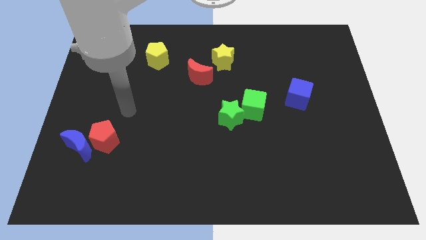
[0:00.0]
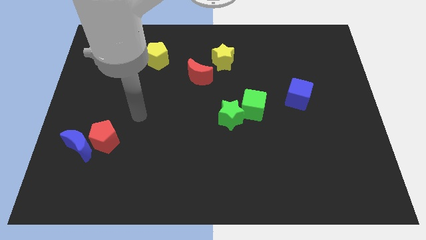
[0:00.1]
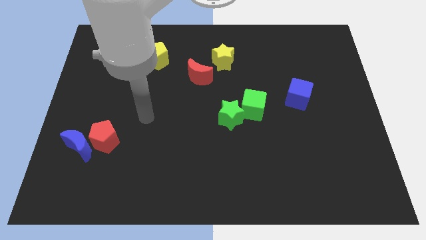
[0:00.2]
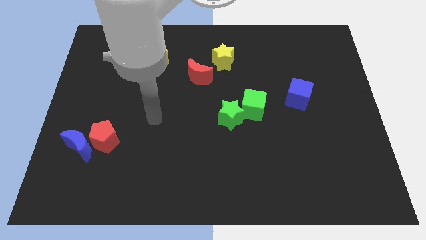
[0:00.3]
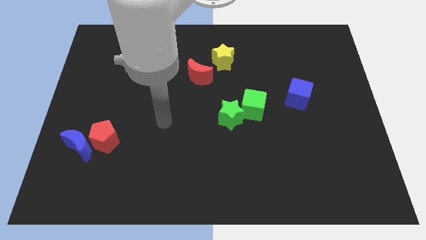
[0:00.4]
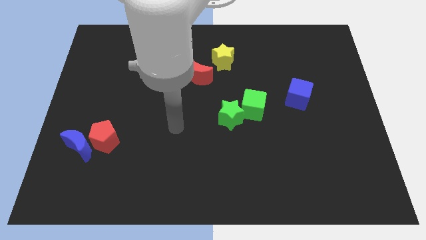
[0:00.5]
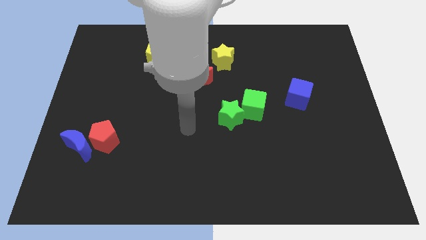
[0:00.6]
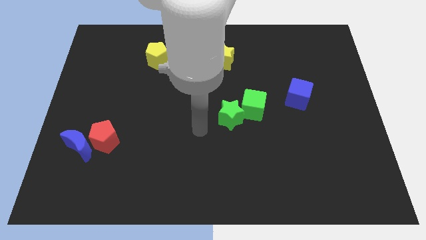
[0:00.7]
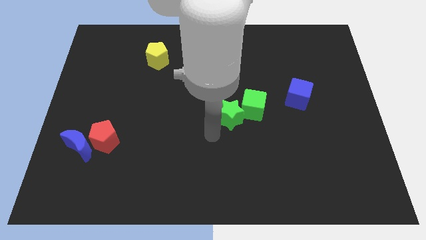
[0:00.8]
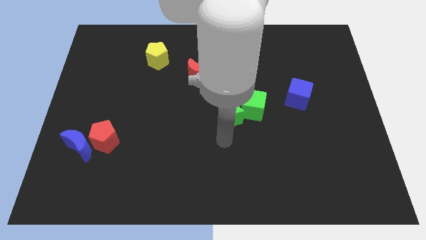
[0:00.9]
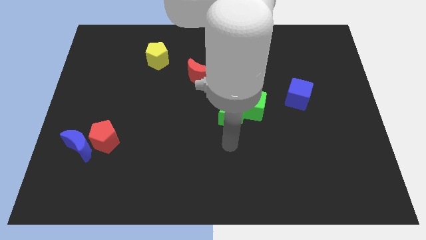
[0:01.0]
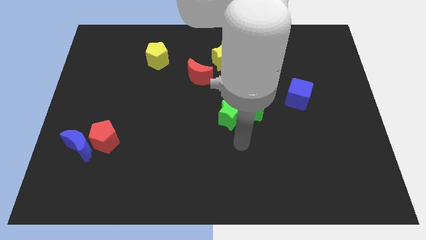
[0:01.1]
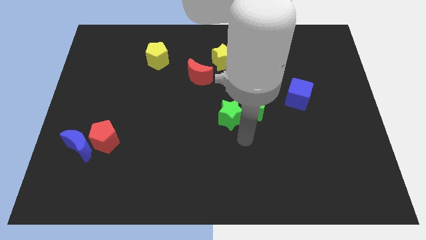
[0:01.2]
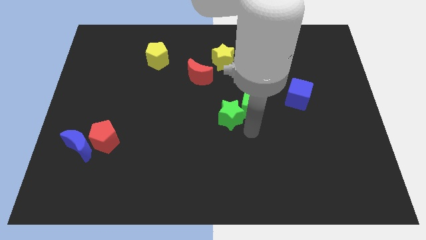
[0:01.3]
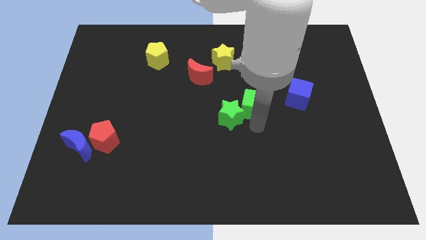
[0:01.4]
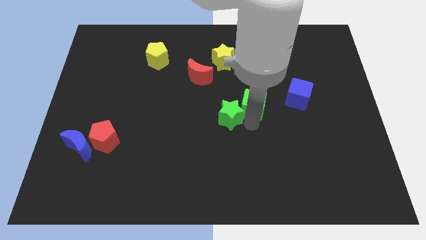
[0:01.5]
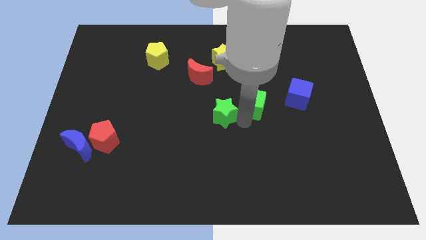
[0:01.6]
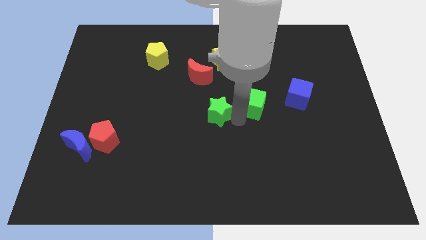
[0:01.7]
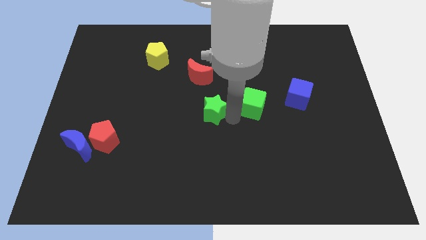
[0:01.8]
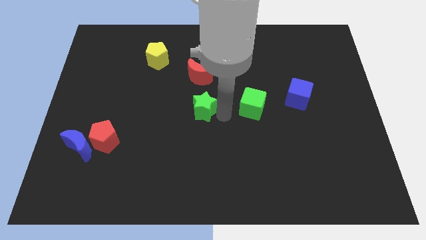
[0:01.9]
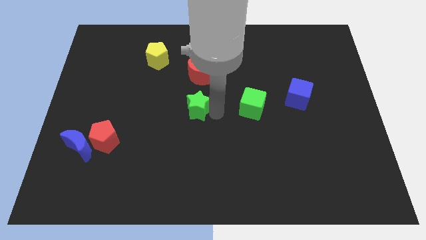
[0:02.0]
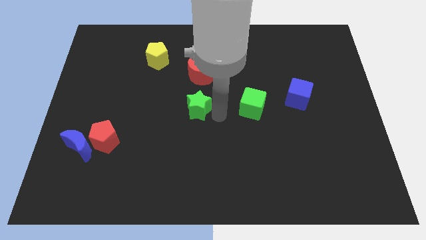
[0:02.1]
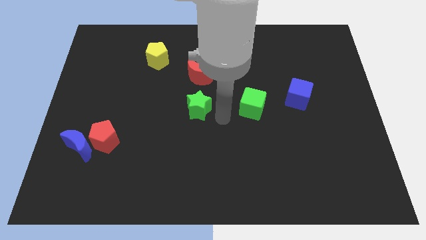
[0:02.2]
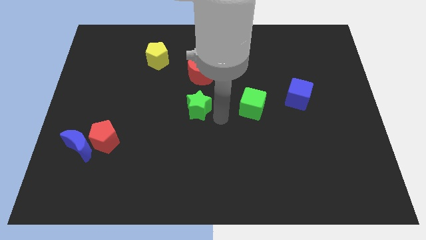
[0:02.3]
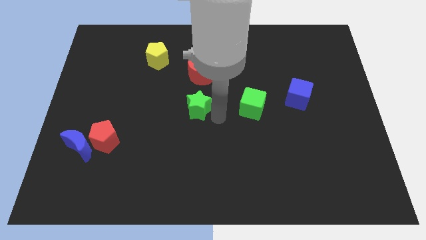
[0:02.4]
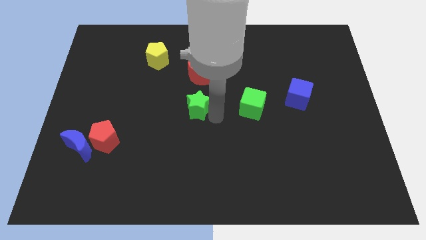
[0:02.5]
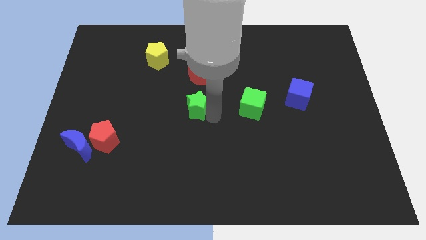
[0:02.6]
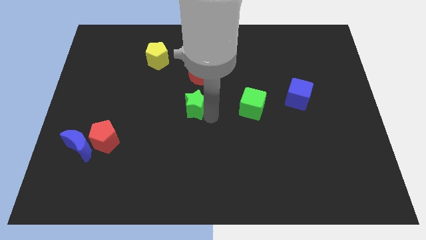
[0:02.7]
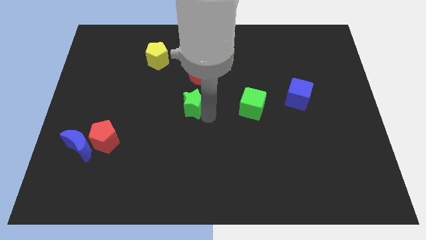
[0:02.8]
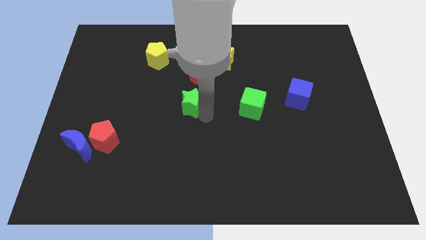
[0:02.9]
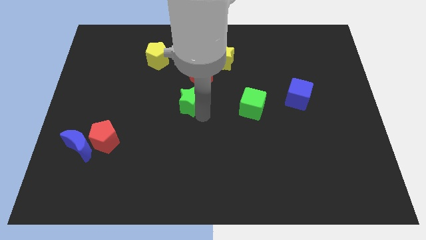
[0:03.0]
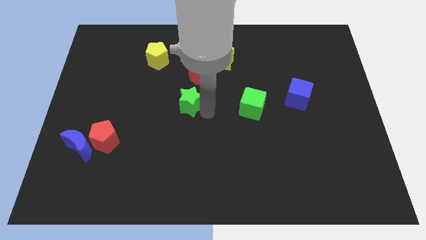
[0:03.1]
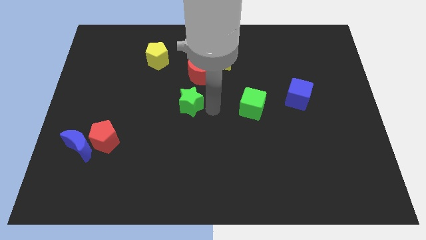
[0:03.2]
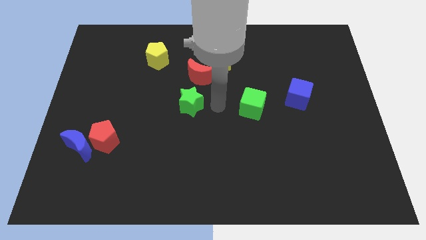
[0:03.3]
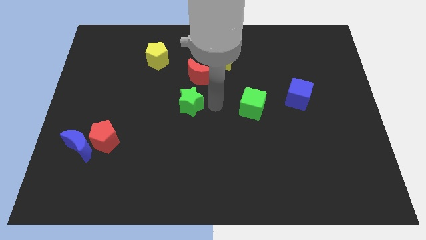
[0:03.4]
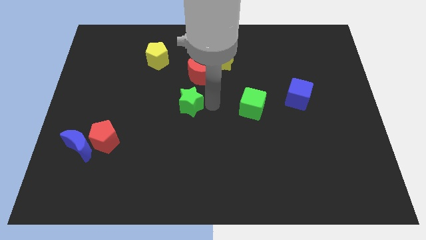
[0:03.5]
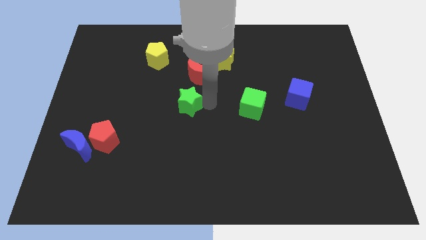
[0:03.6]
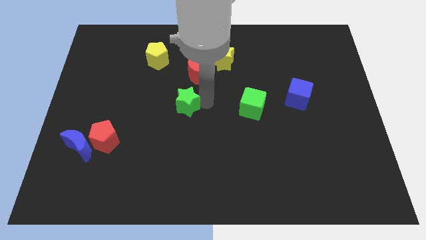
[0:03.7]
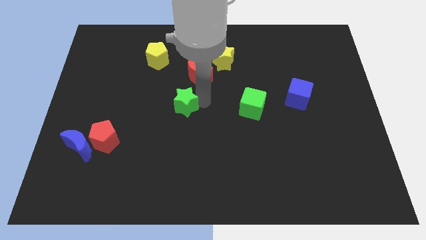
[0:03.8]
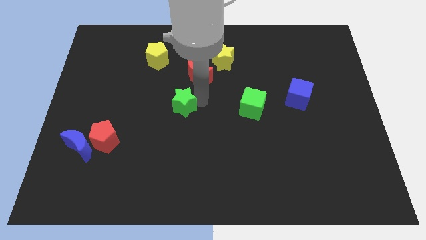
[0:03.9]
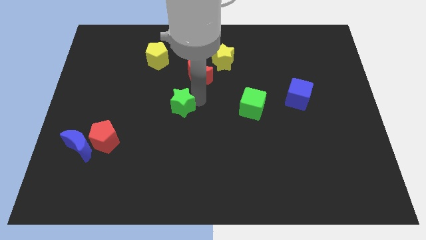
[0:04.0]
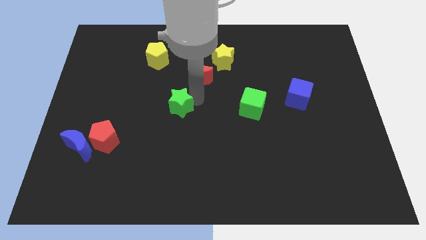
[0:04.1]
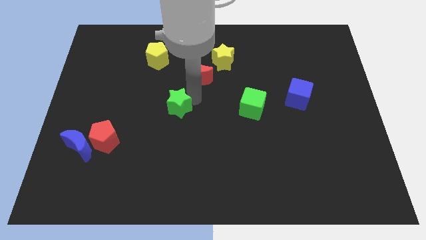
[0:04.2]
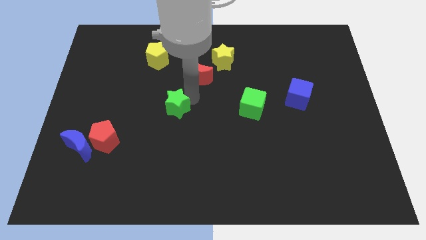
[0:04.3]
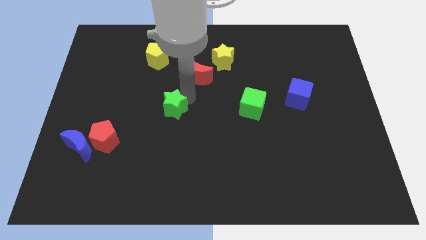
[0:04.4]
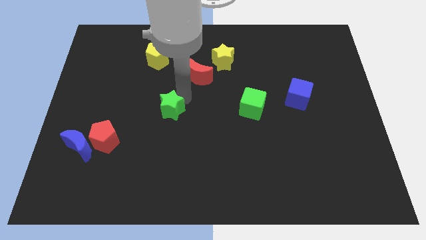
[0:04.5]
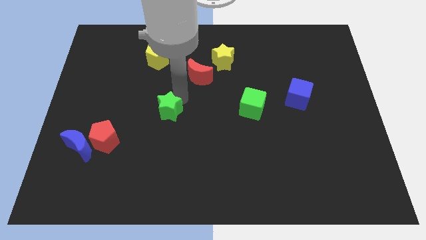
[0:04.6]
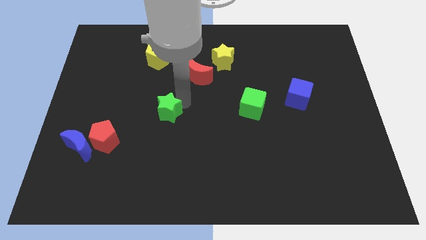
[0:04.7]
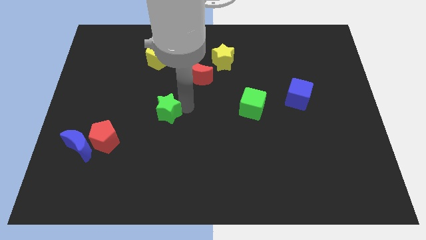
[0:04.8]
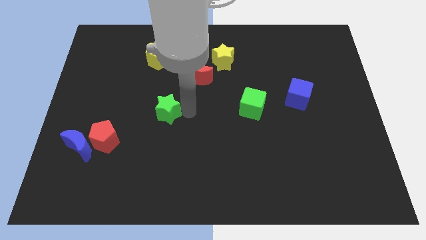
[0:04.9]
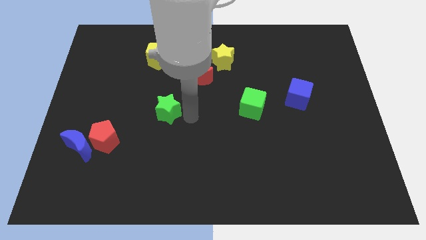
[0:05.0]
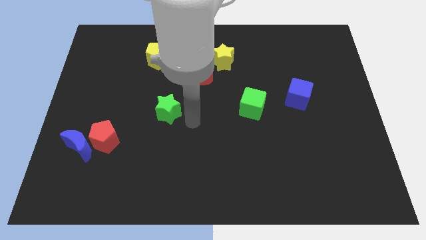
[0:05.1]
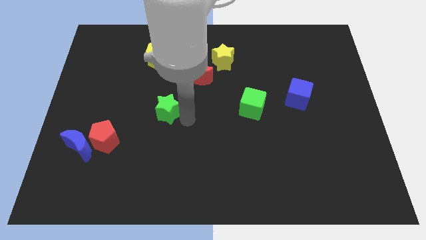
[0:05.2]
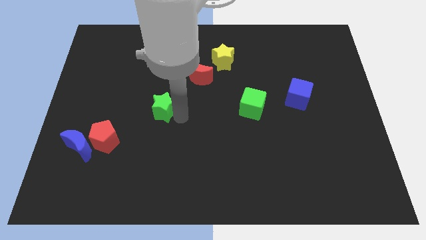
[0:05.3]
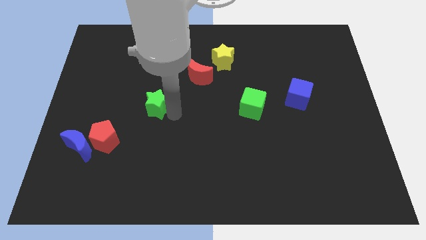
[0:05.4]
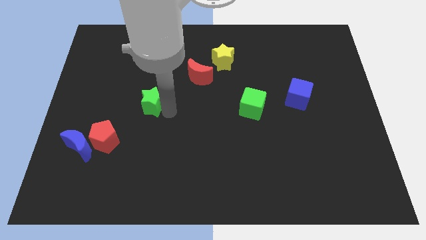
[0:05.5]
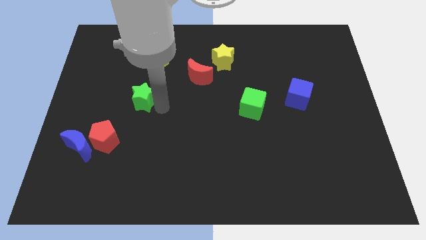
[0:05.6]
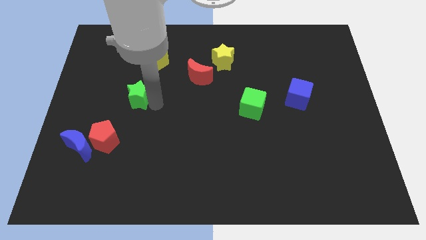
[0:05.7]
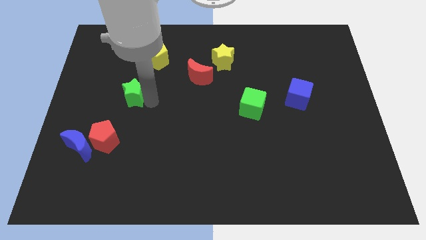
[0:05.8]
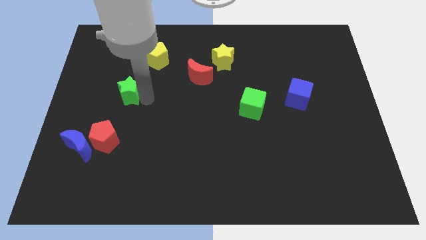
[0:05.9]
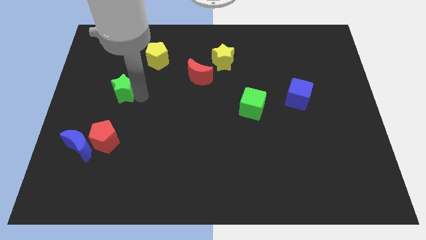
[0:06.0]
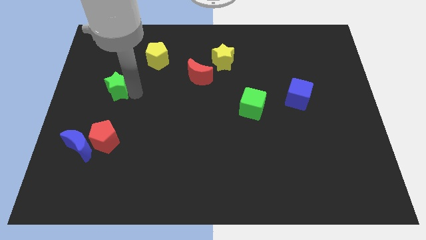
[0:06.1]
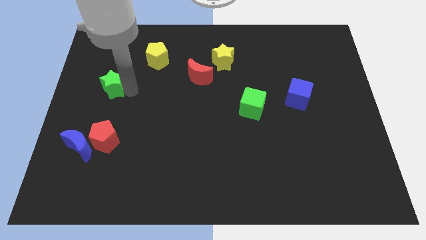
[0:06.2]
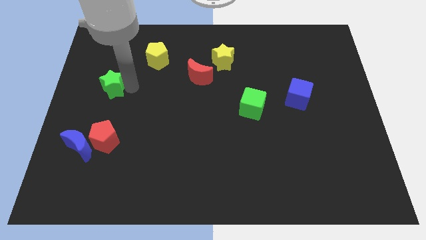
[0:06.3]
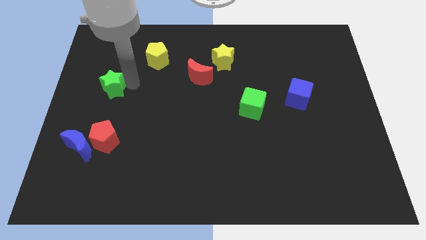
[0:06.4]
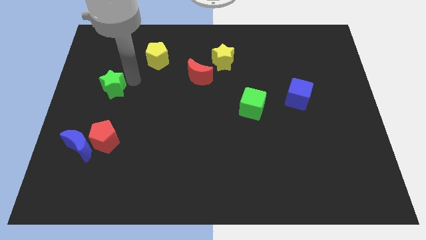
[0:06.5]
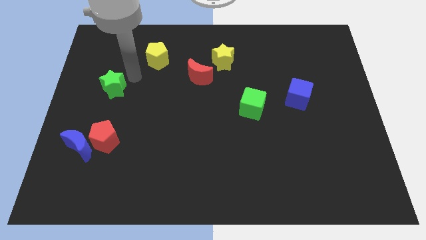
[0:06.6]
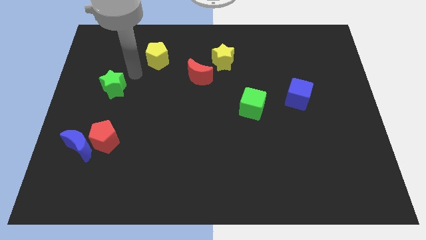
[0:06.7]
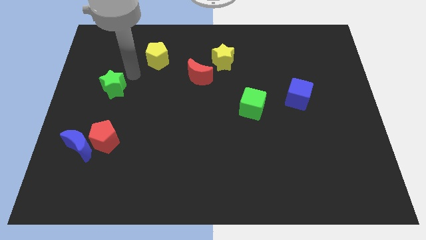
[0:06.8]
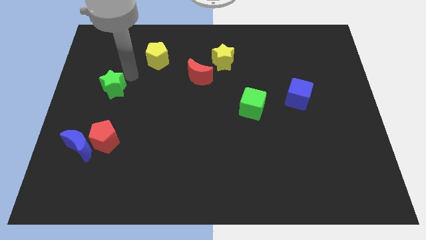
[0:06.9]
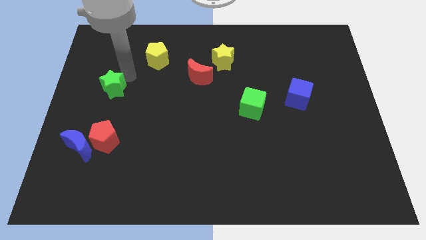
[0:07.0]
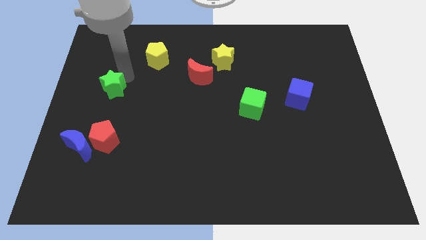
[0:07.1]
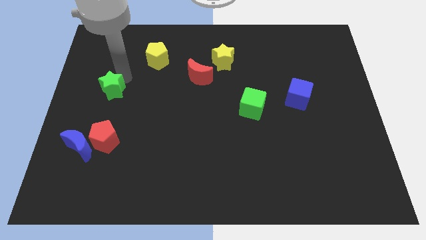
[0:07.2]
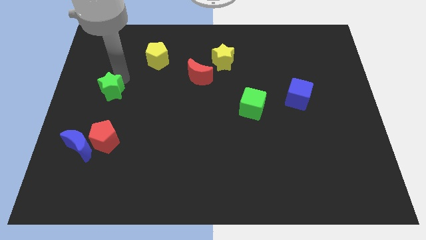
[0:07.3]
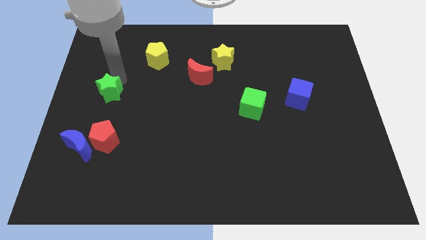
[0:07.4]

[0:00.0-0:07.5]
push the green star to the left side
